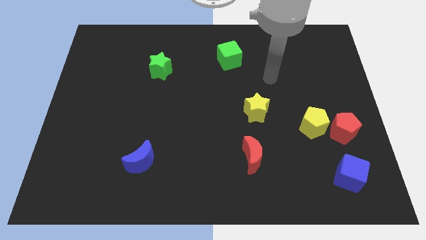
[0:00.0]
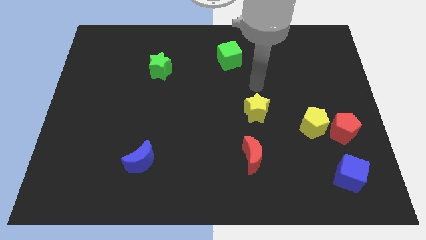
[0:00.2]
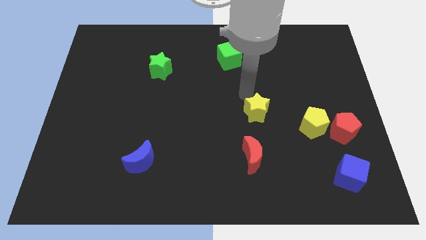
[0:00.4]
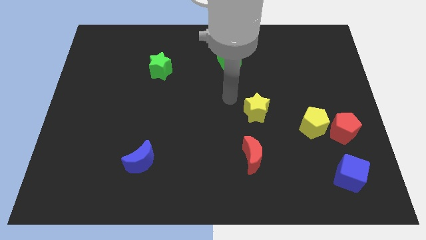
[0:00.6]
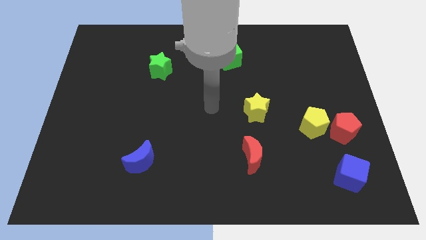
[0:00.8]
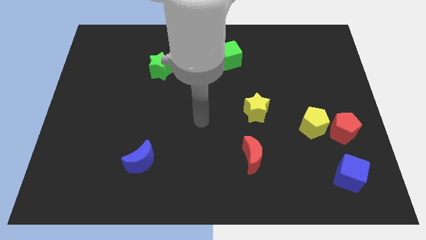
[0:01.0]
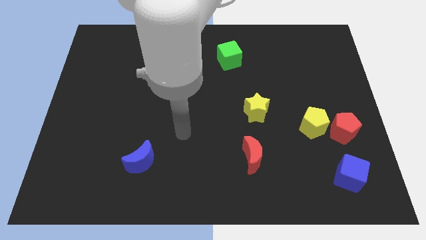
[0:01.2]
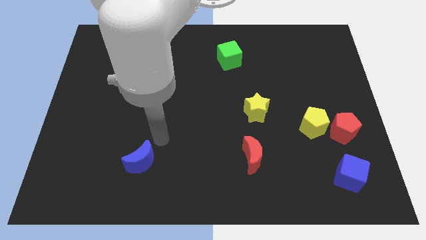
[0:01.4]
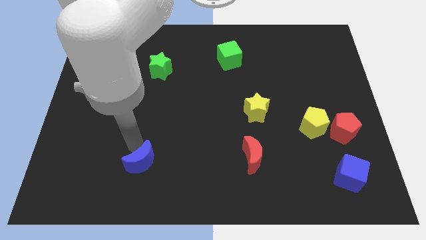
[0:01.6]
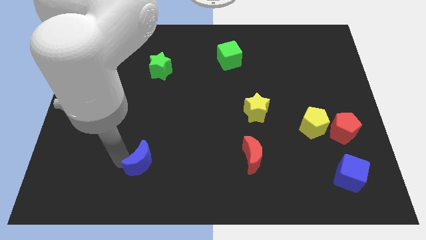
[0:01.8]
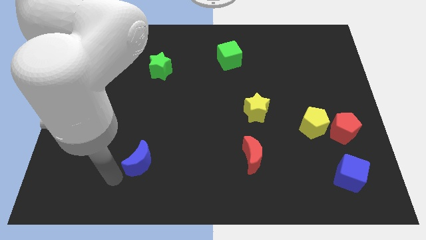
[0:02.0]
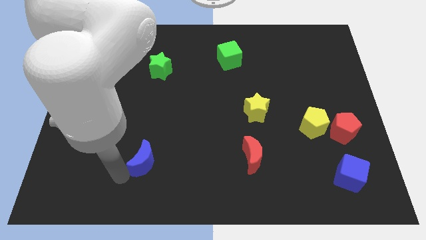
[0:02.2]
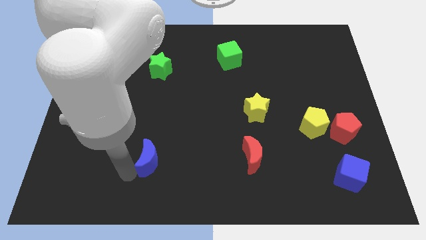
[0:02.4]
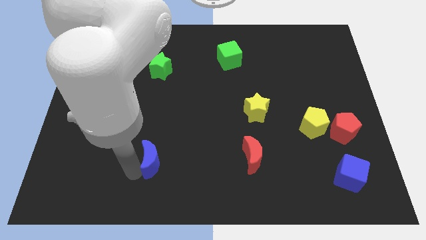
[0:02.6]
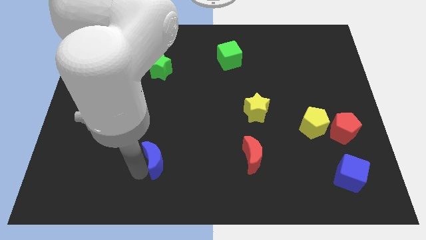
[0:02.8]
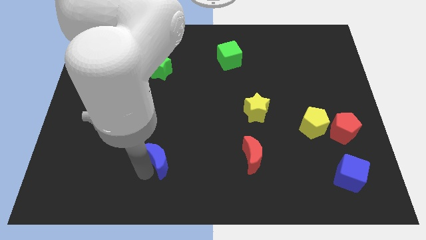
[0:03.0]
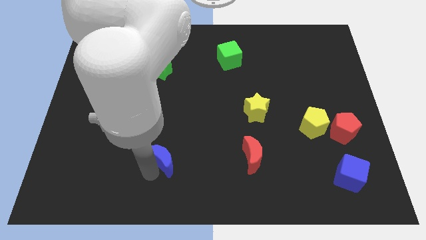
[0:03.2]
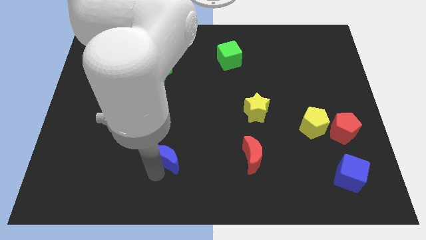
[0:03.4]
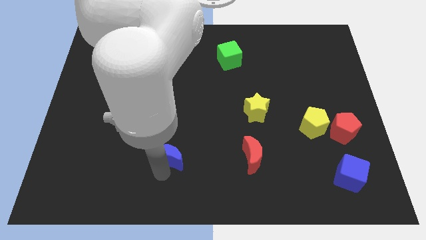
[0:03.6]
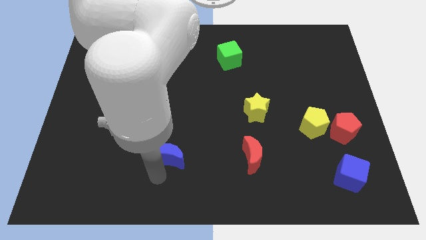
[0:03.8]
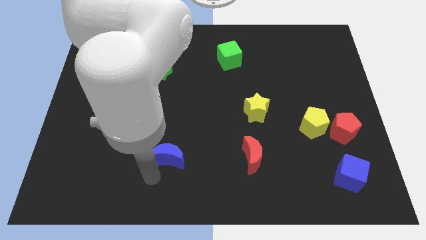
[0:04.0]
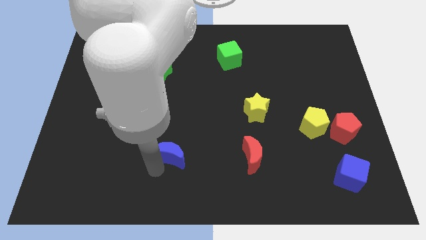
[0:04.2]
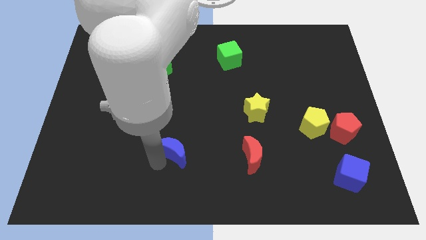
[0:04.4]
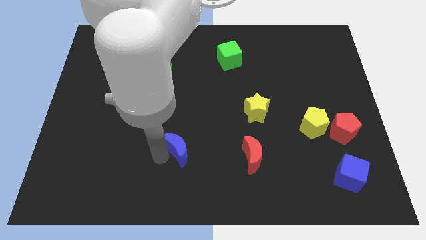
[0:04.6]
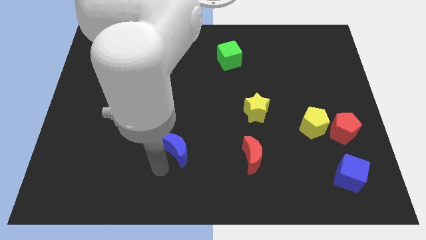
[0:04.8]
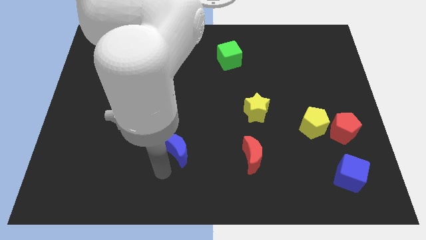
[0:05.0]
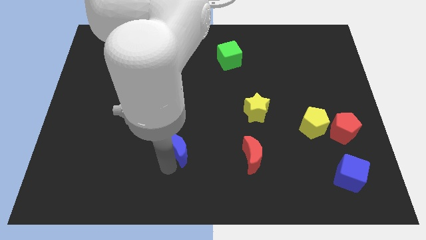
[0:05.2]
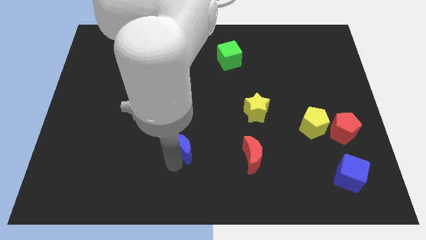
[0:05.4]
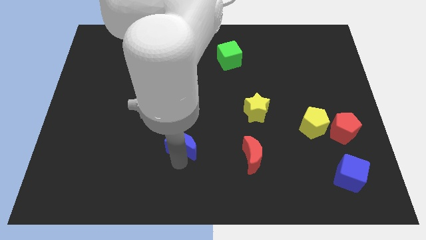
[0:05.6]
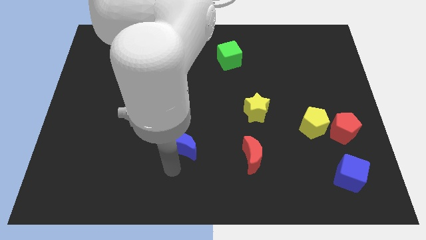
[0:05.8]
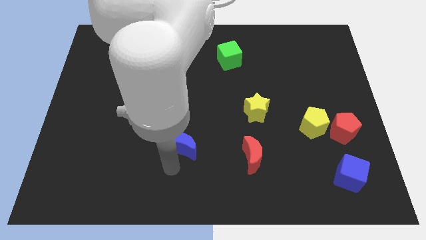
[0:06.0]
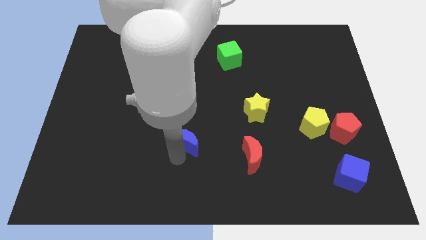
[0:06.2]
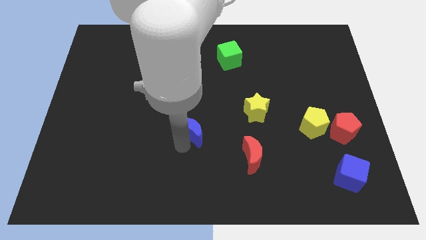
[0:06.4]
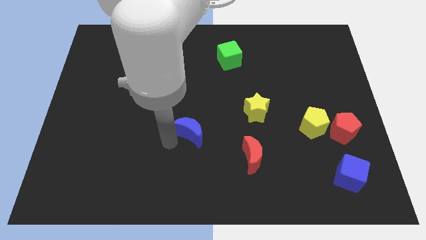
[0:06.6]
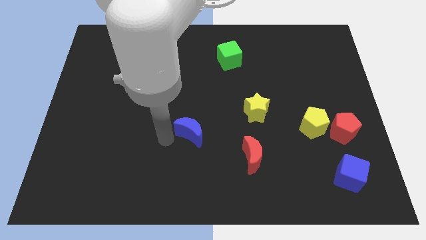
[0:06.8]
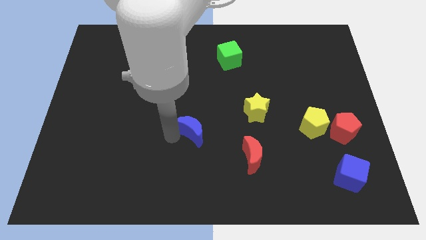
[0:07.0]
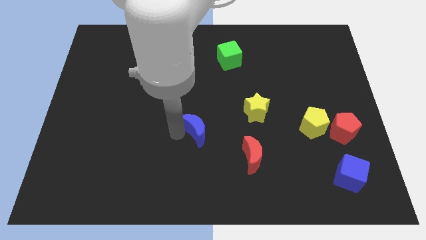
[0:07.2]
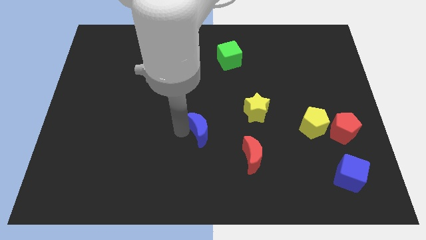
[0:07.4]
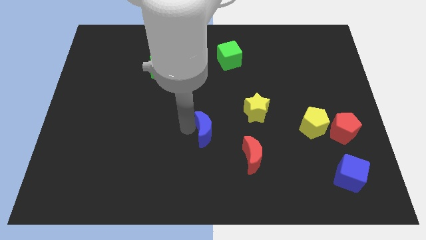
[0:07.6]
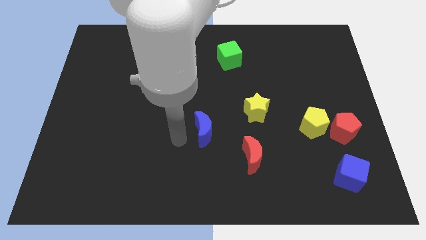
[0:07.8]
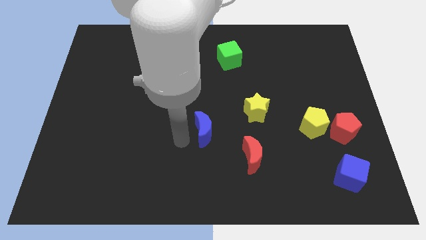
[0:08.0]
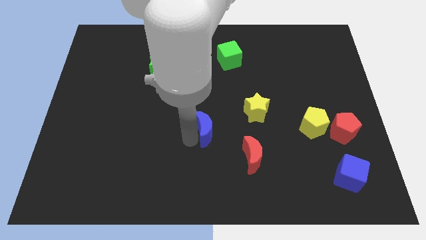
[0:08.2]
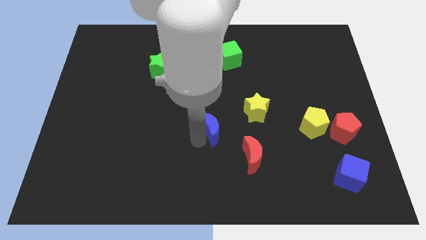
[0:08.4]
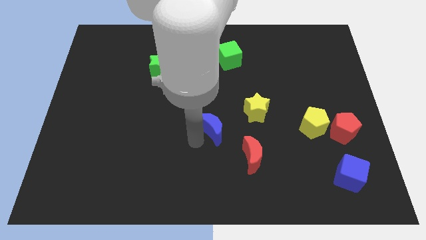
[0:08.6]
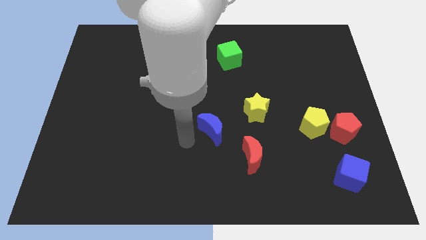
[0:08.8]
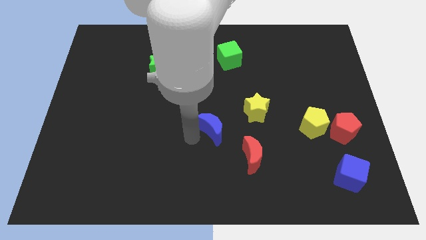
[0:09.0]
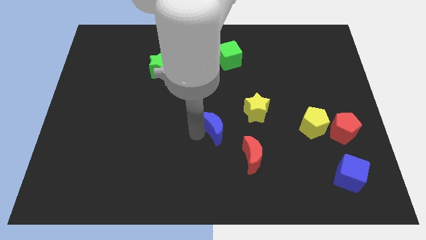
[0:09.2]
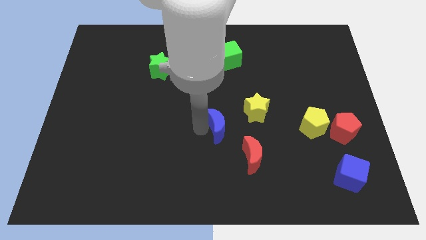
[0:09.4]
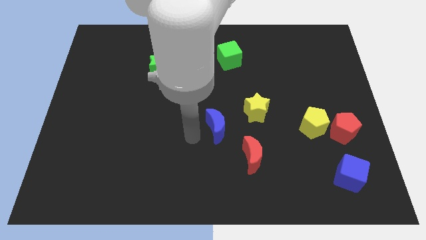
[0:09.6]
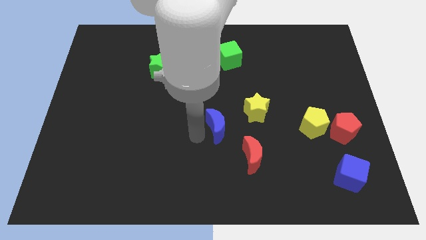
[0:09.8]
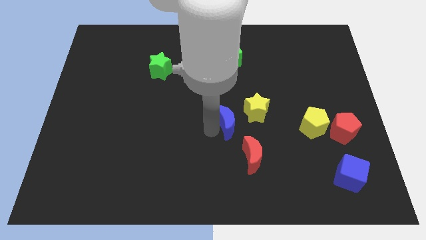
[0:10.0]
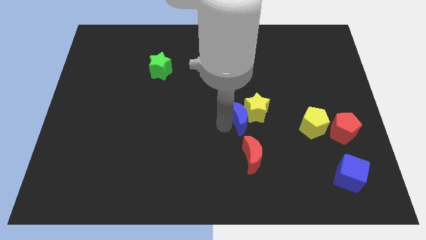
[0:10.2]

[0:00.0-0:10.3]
push the blue moon to the yellow star

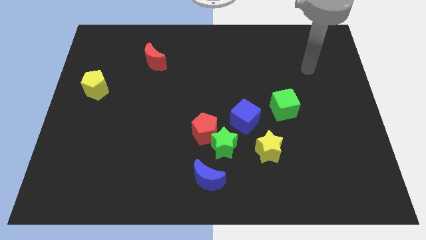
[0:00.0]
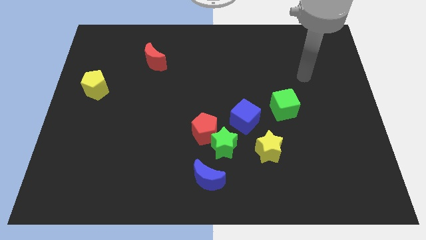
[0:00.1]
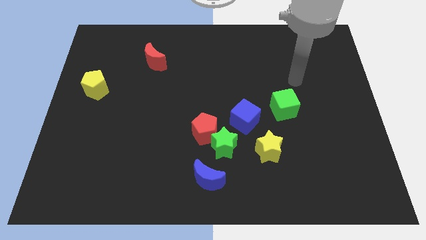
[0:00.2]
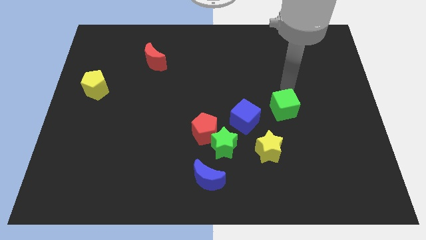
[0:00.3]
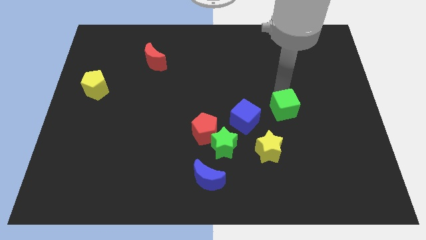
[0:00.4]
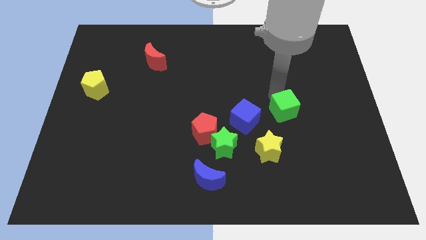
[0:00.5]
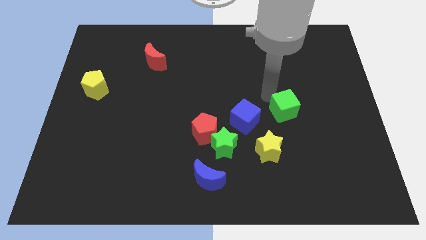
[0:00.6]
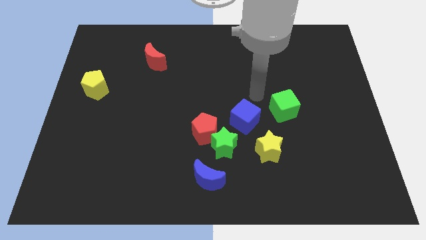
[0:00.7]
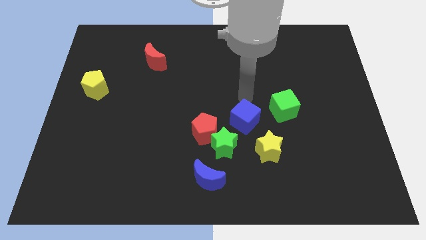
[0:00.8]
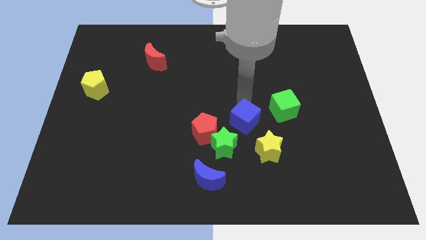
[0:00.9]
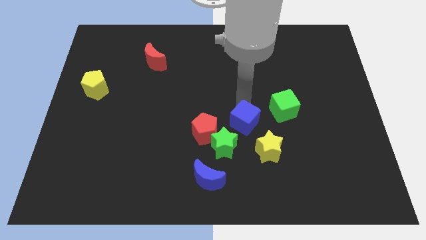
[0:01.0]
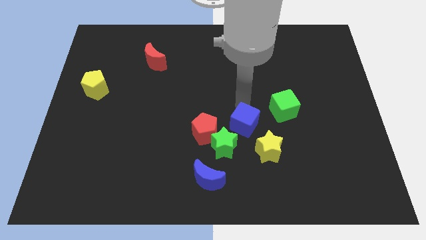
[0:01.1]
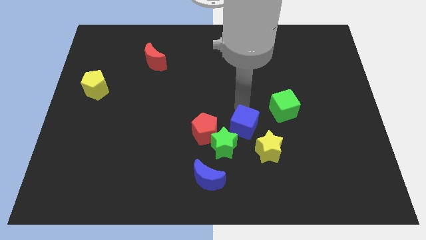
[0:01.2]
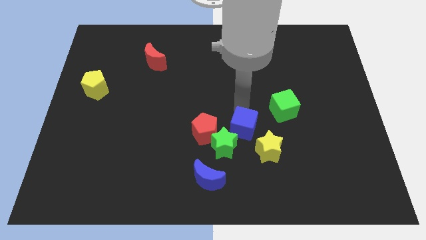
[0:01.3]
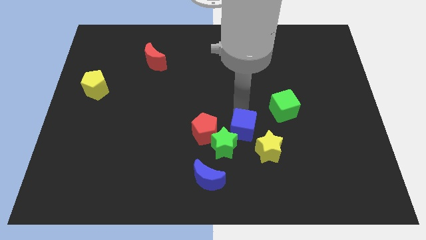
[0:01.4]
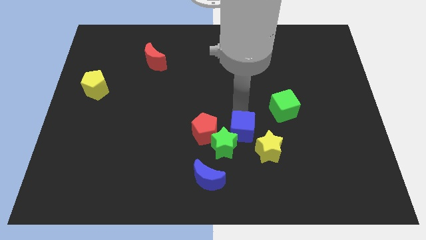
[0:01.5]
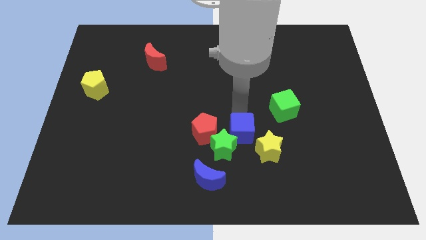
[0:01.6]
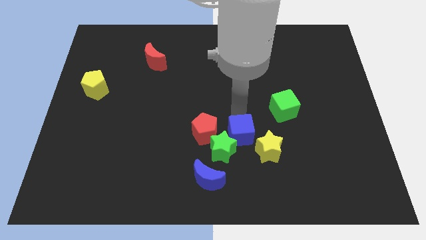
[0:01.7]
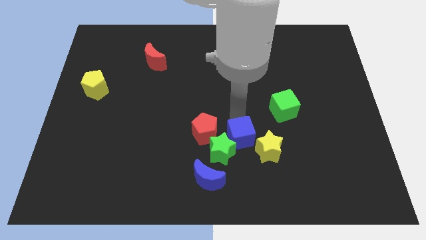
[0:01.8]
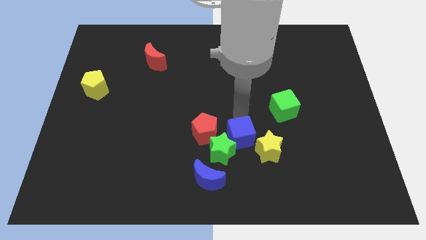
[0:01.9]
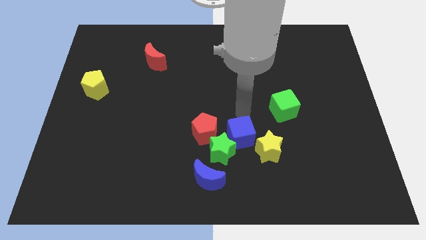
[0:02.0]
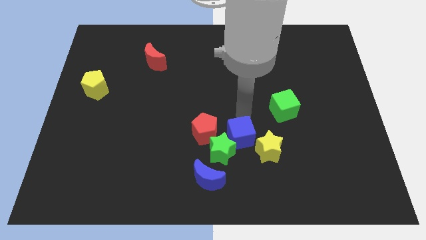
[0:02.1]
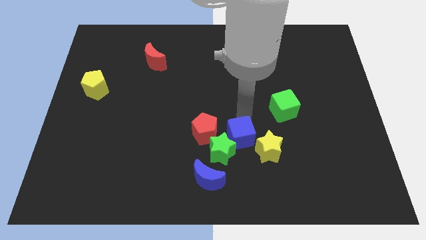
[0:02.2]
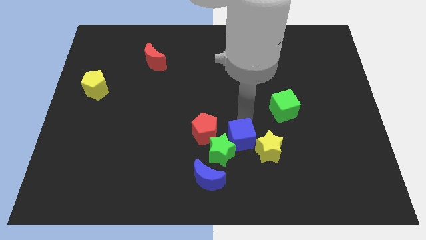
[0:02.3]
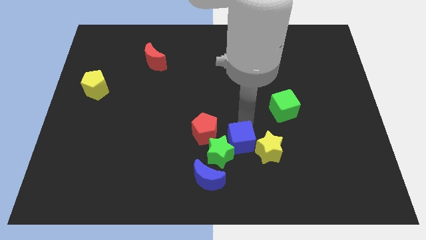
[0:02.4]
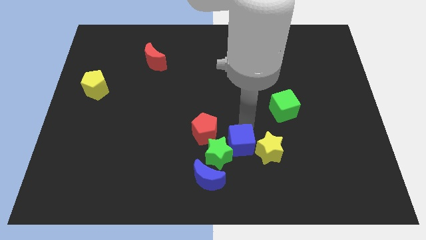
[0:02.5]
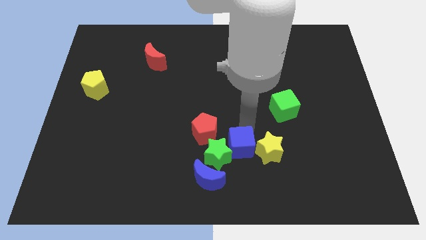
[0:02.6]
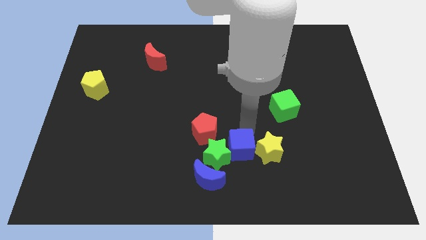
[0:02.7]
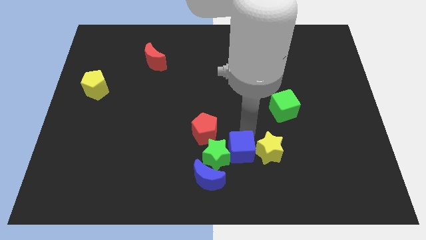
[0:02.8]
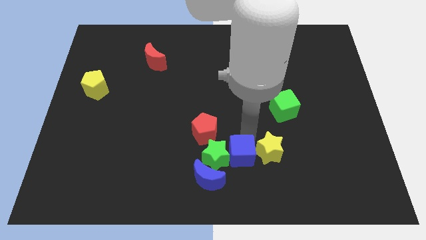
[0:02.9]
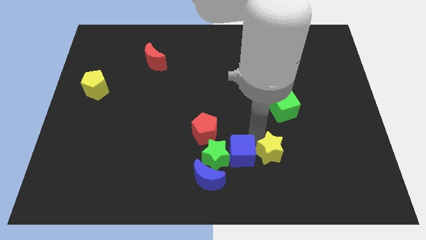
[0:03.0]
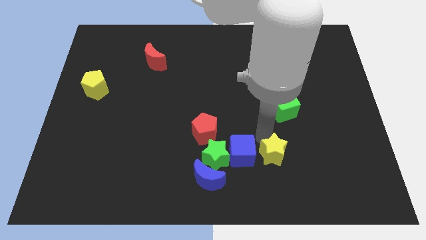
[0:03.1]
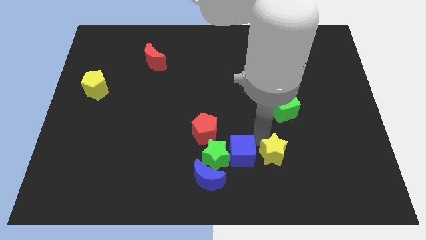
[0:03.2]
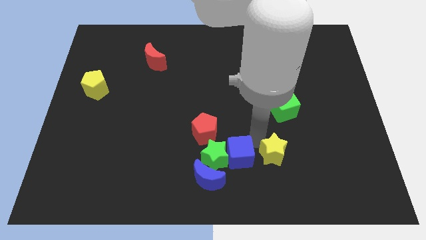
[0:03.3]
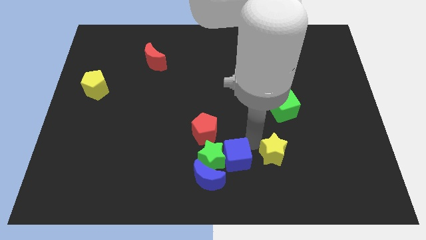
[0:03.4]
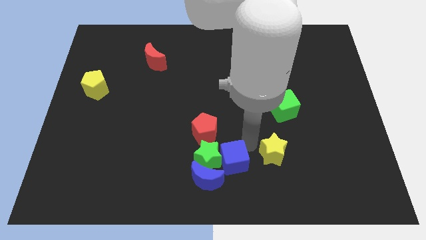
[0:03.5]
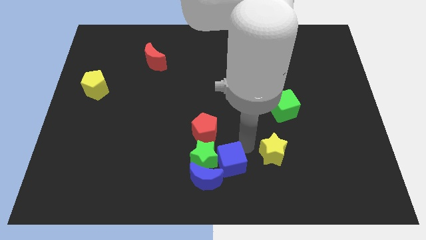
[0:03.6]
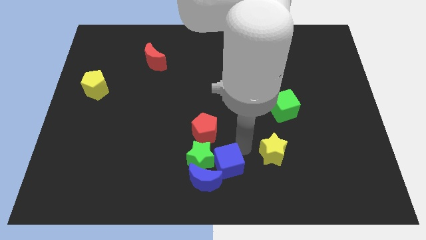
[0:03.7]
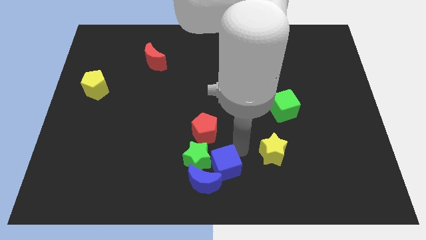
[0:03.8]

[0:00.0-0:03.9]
put the blue cube towards the blue moon
